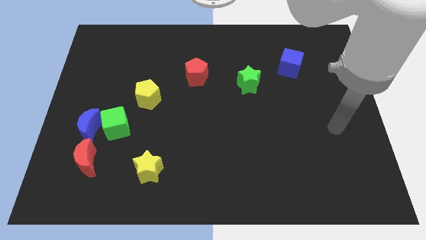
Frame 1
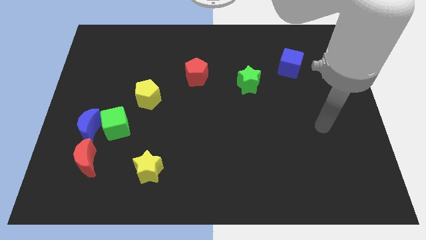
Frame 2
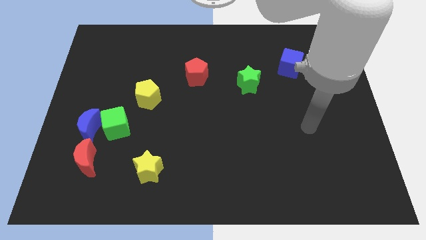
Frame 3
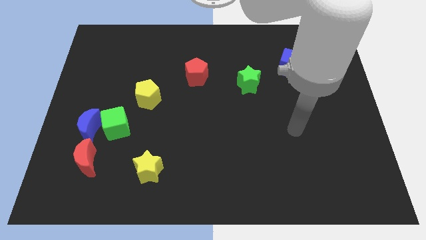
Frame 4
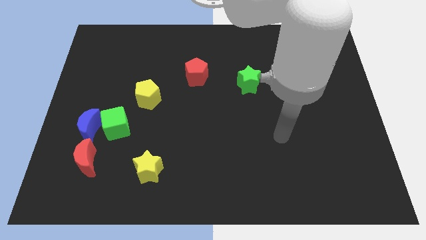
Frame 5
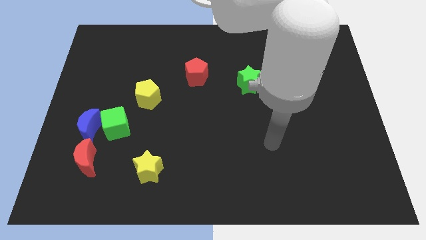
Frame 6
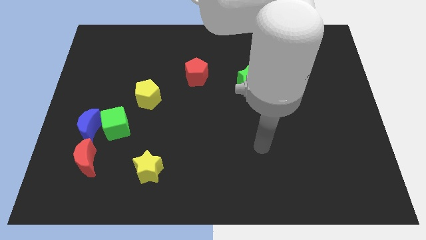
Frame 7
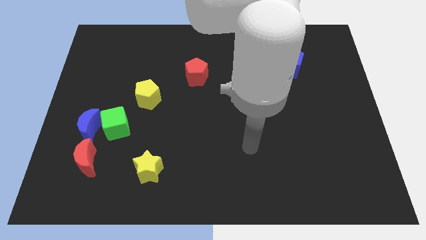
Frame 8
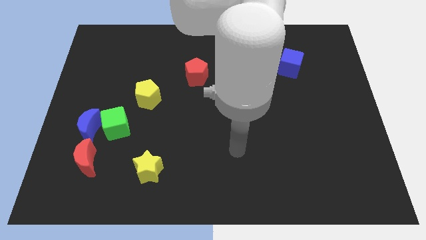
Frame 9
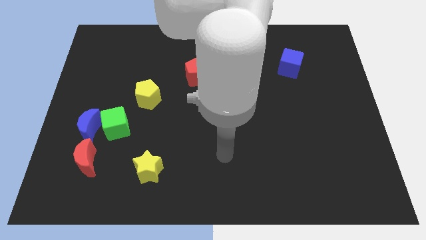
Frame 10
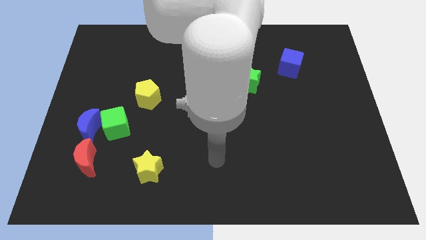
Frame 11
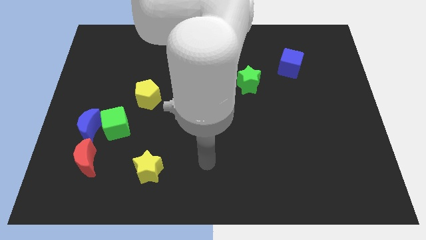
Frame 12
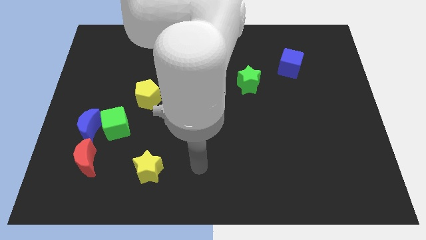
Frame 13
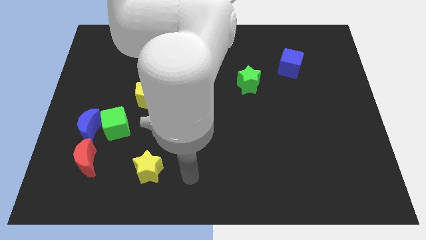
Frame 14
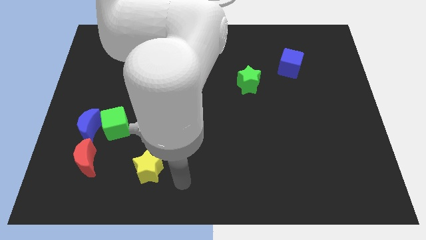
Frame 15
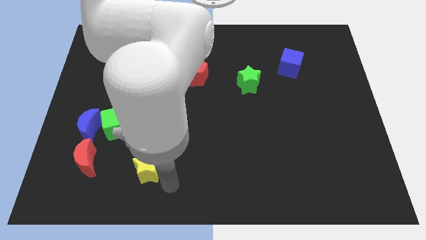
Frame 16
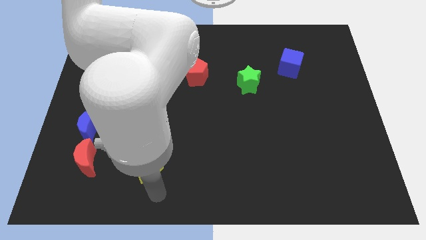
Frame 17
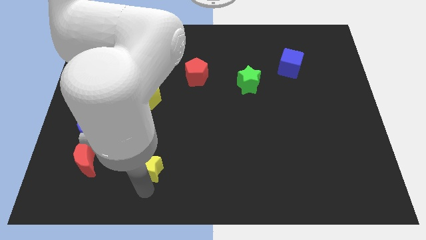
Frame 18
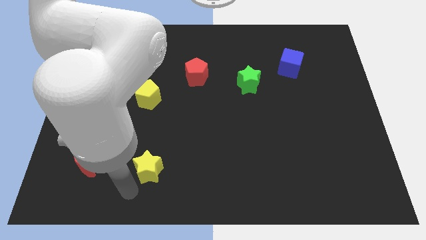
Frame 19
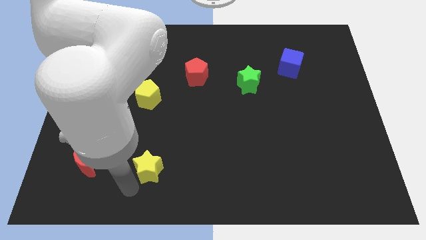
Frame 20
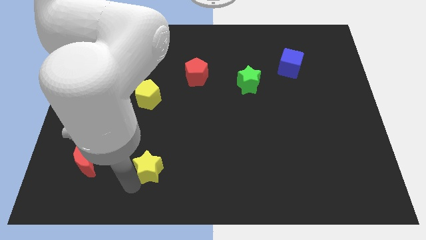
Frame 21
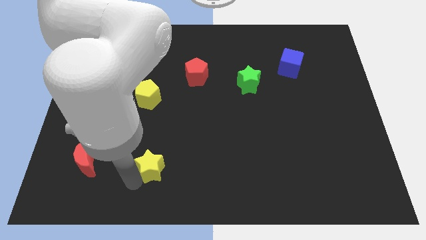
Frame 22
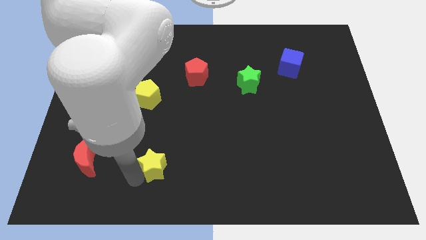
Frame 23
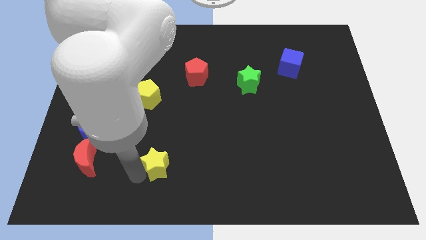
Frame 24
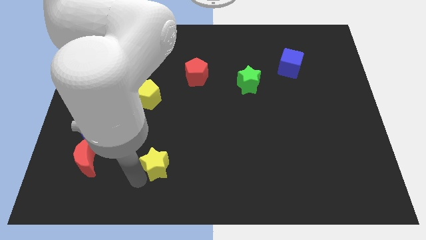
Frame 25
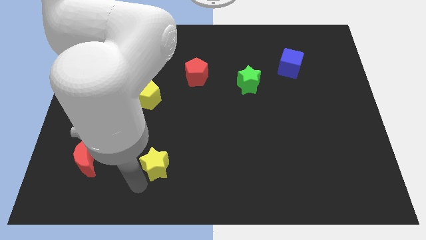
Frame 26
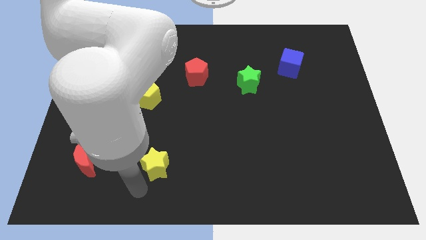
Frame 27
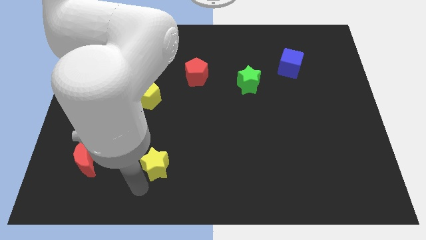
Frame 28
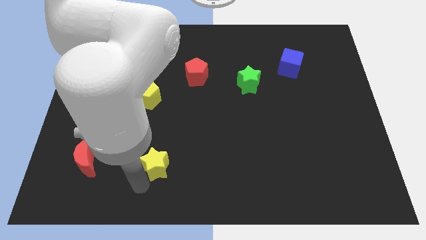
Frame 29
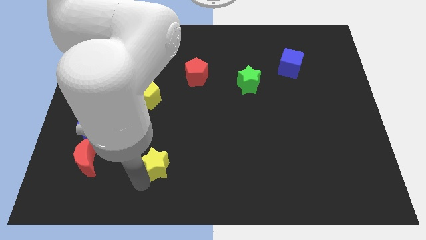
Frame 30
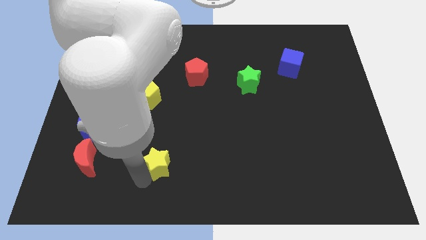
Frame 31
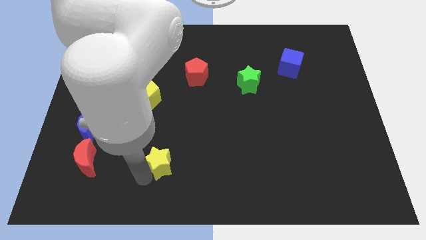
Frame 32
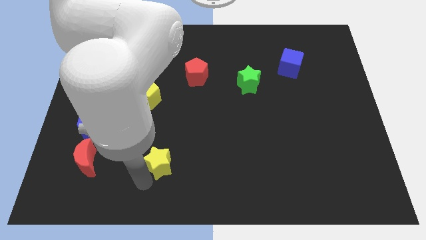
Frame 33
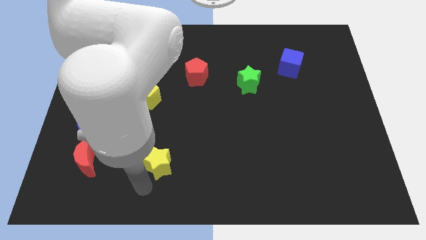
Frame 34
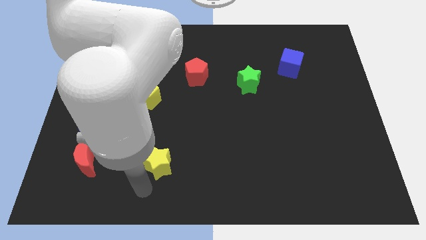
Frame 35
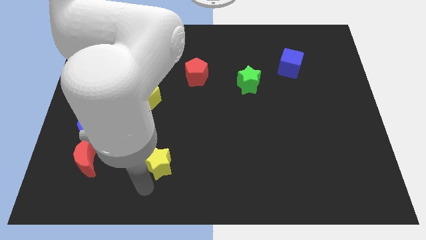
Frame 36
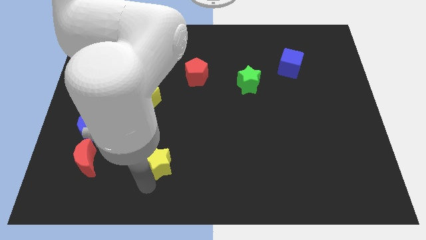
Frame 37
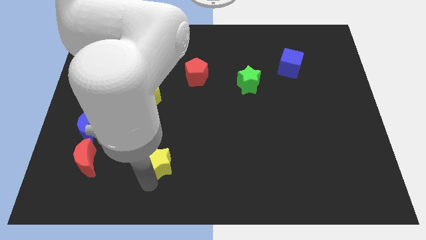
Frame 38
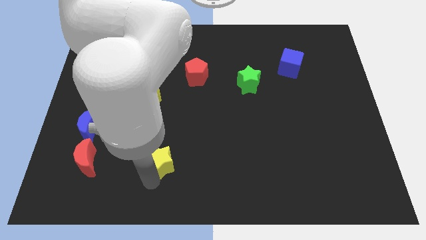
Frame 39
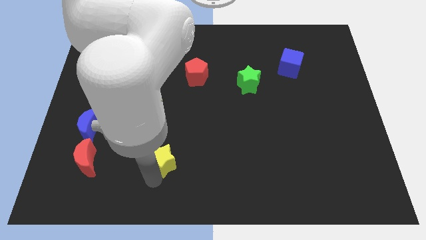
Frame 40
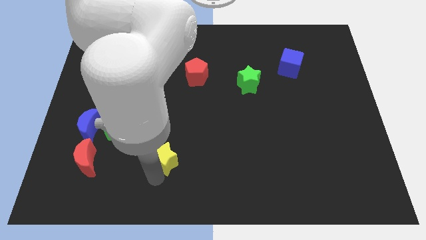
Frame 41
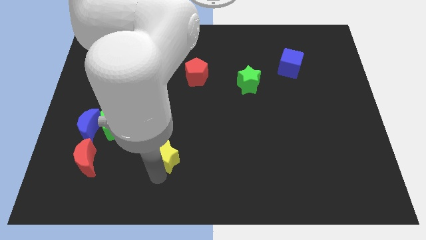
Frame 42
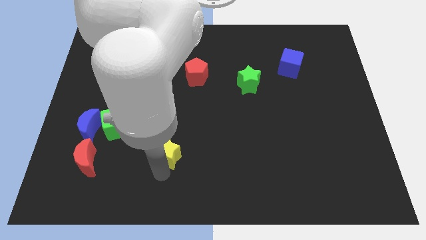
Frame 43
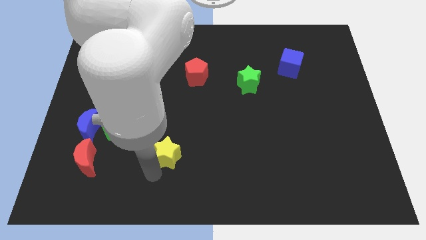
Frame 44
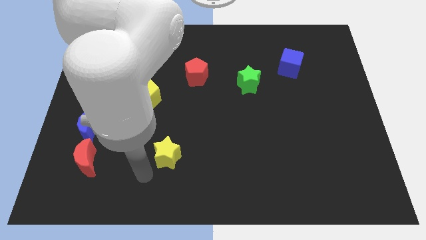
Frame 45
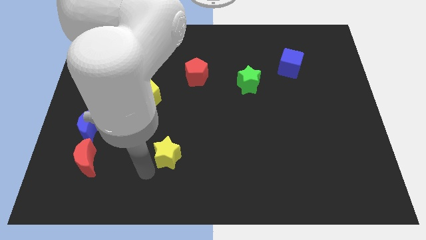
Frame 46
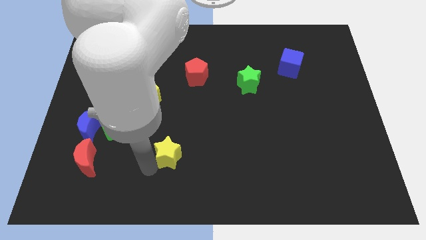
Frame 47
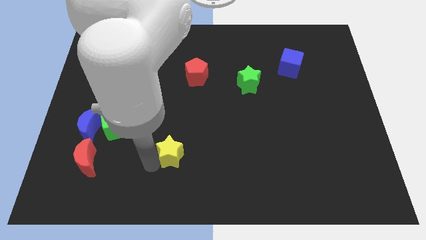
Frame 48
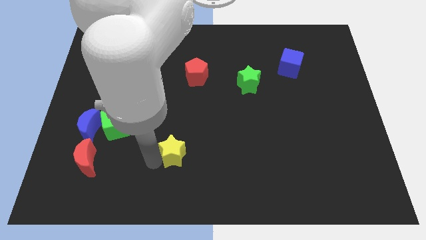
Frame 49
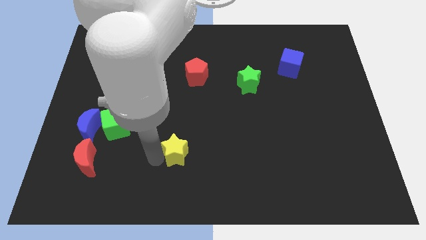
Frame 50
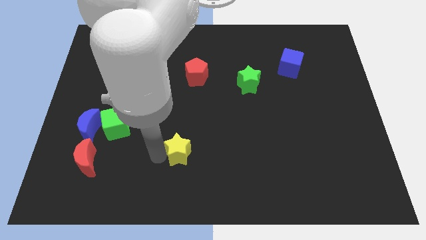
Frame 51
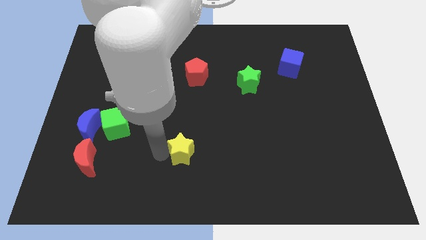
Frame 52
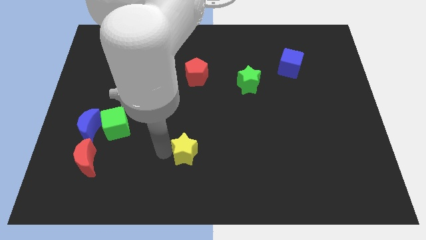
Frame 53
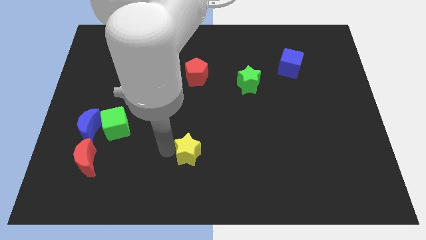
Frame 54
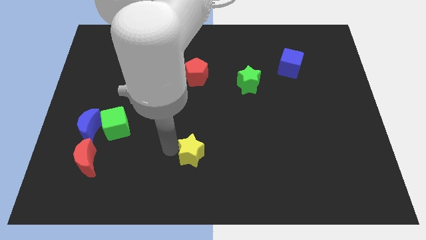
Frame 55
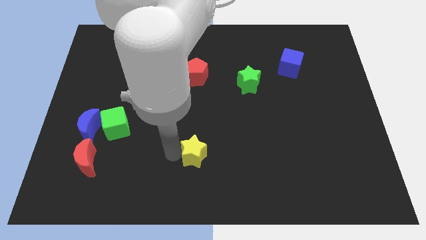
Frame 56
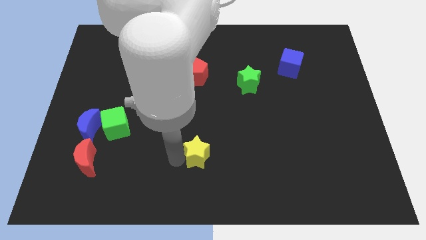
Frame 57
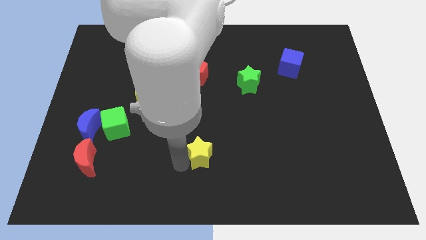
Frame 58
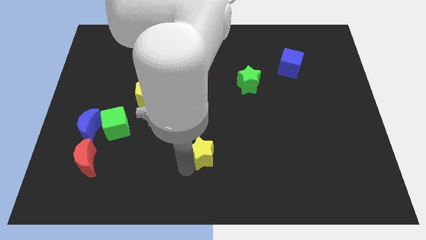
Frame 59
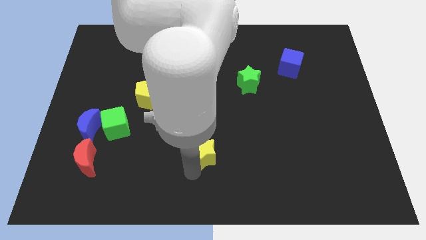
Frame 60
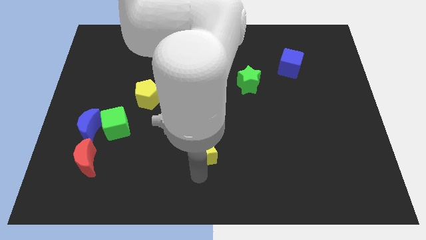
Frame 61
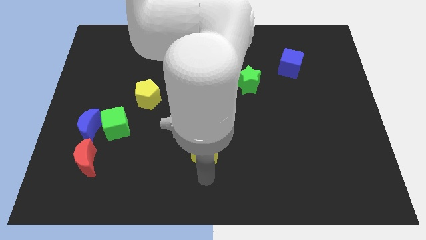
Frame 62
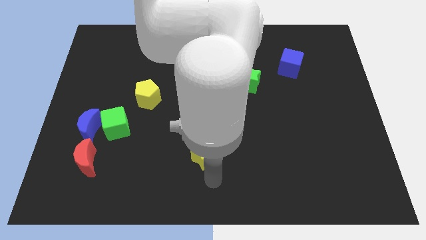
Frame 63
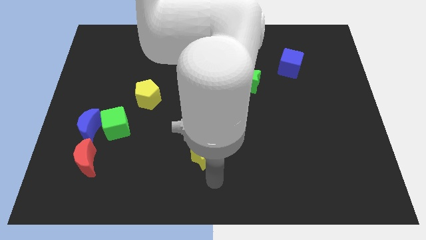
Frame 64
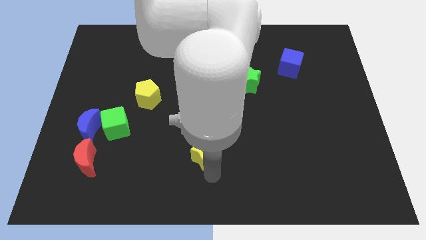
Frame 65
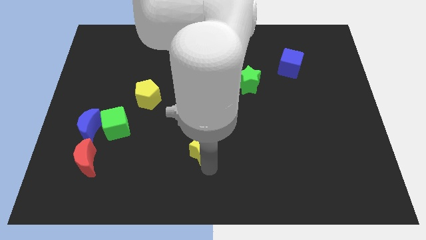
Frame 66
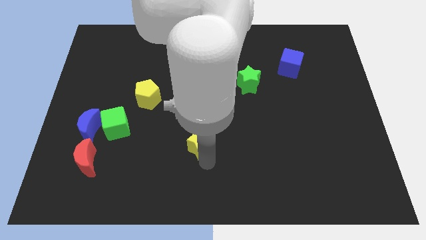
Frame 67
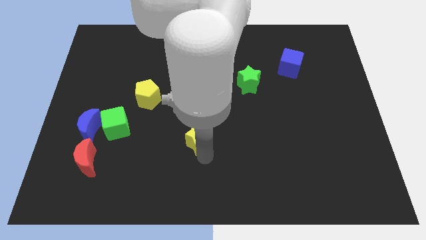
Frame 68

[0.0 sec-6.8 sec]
put the yellow star to the middle

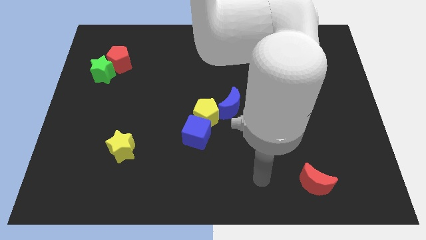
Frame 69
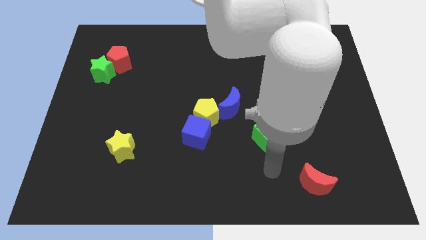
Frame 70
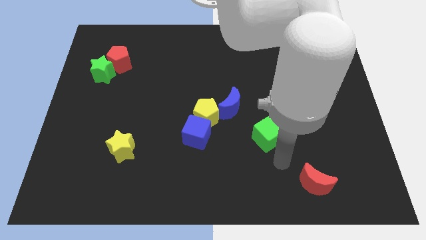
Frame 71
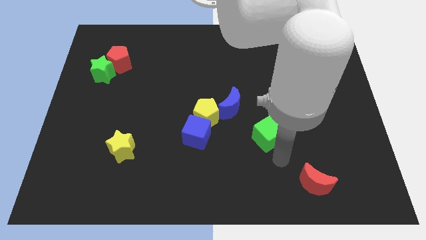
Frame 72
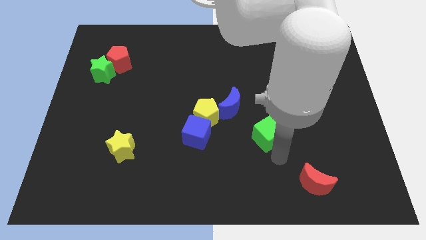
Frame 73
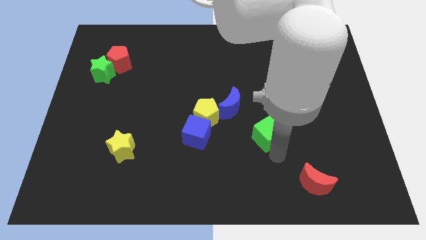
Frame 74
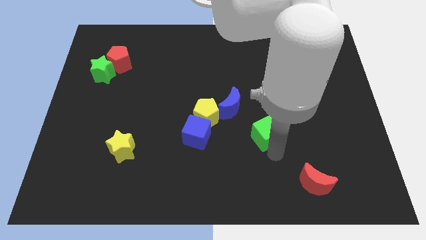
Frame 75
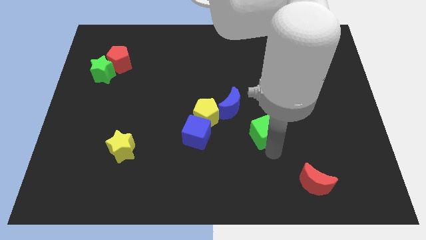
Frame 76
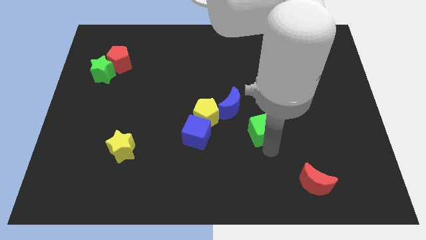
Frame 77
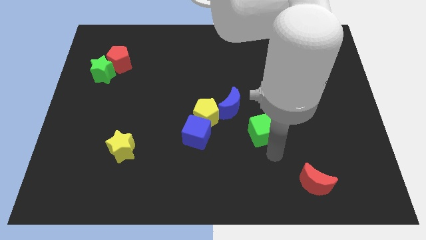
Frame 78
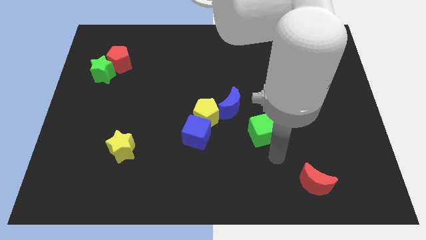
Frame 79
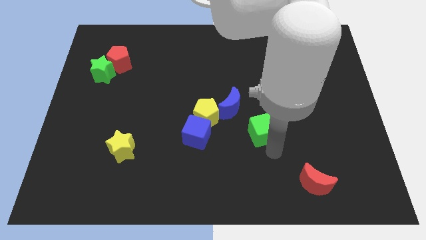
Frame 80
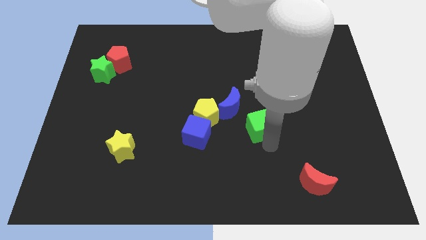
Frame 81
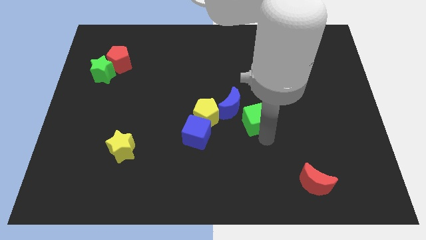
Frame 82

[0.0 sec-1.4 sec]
put the green cube to the center of the board
